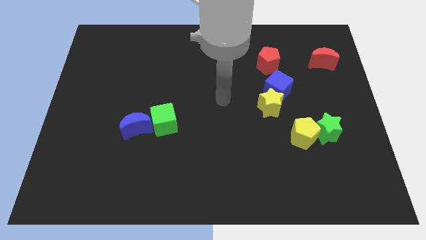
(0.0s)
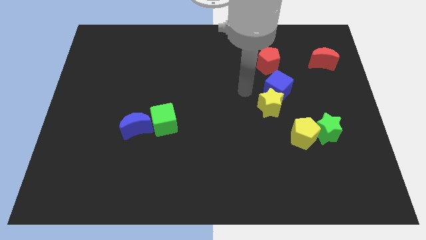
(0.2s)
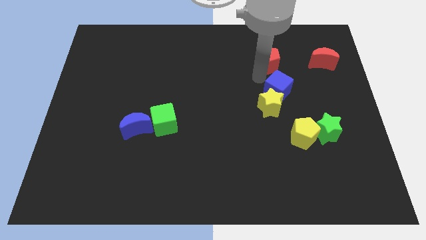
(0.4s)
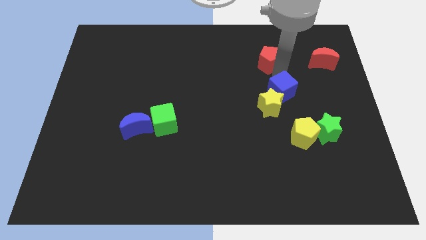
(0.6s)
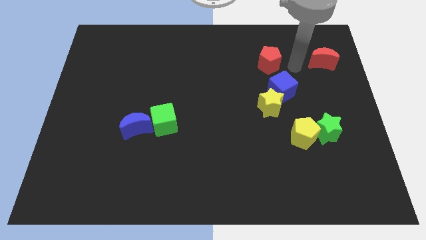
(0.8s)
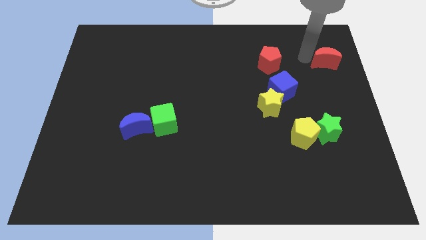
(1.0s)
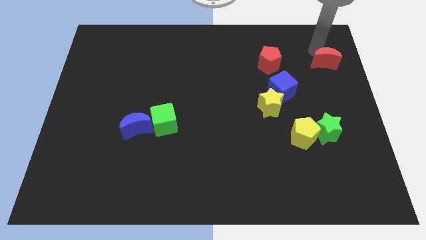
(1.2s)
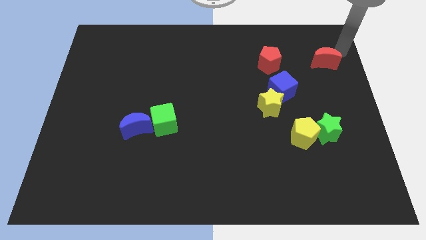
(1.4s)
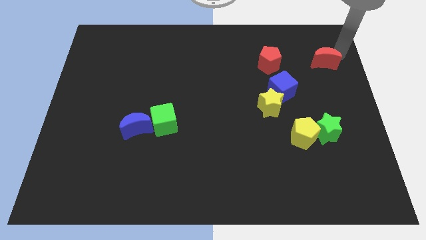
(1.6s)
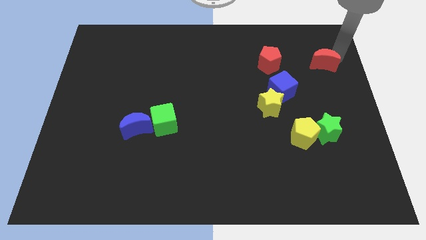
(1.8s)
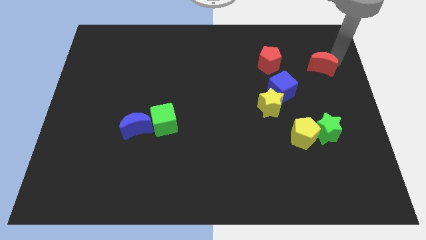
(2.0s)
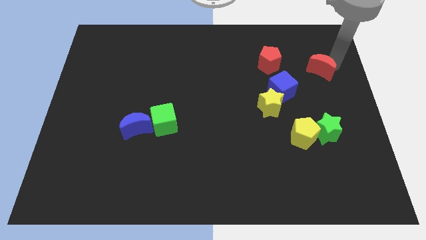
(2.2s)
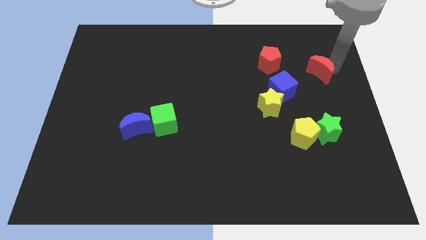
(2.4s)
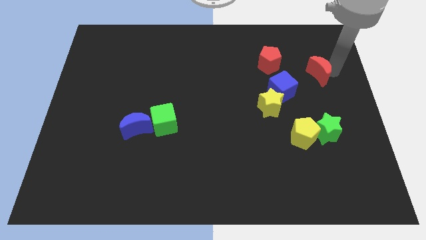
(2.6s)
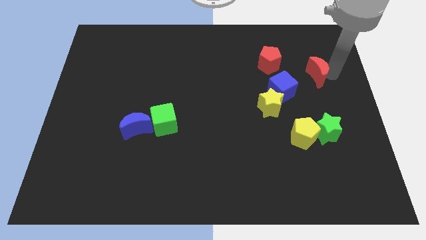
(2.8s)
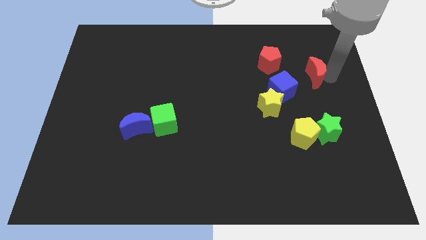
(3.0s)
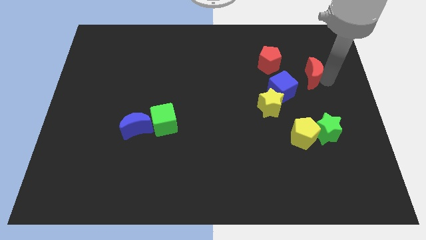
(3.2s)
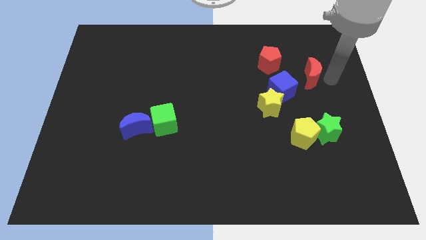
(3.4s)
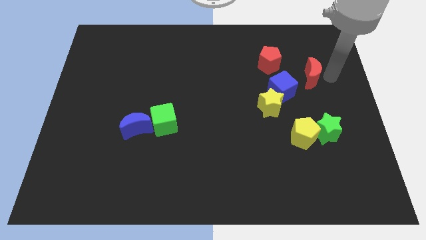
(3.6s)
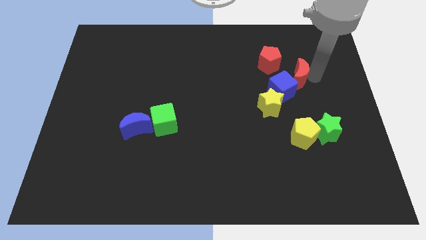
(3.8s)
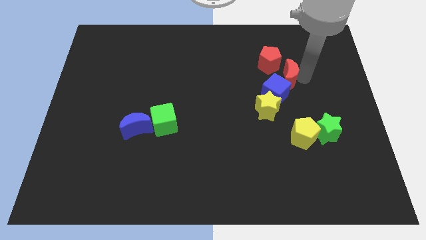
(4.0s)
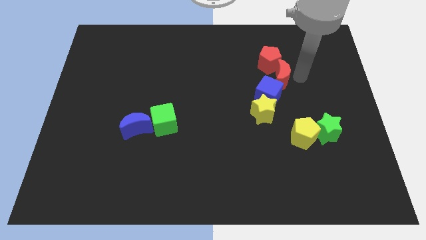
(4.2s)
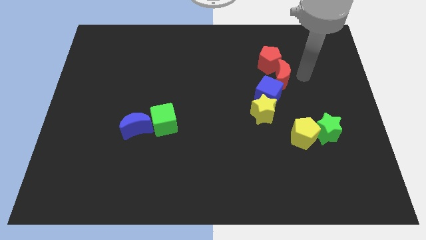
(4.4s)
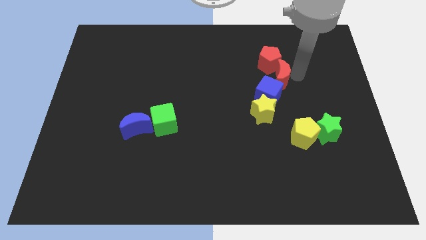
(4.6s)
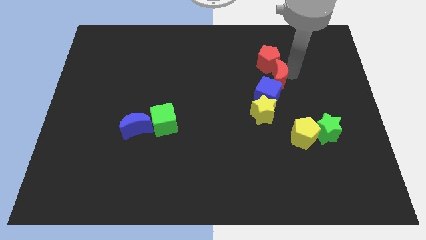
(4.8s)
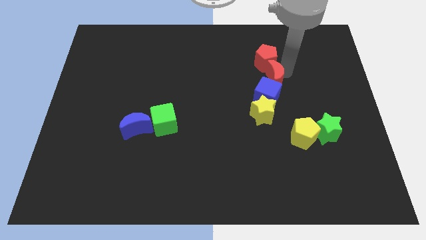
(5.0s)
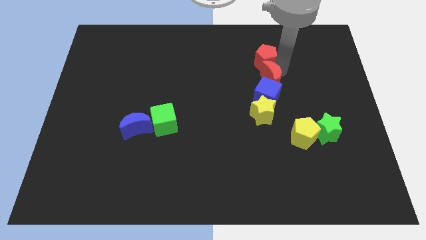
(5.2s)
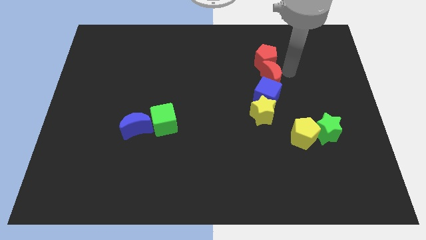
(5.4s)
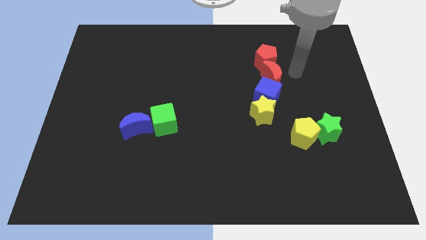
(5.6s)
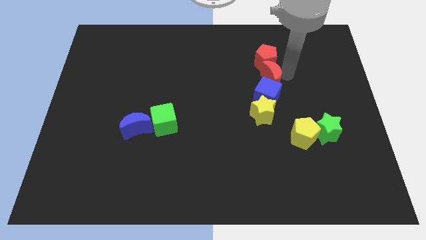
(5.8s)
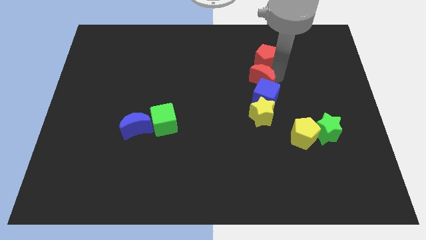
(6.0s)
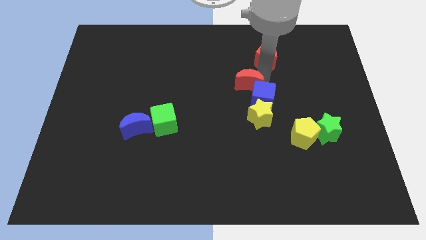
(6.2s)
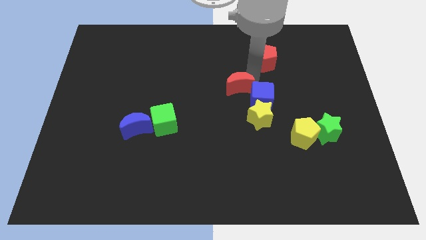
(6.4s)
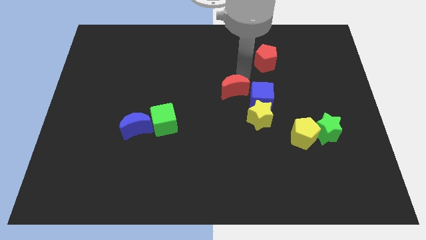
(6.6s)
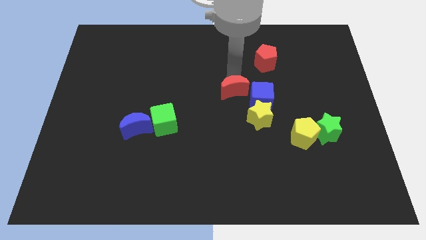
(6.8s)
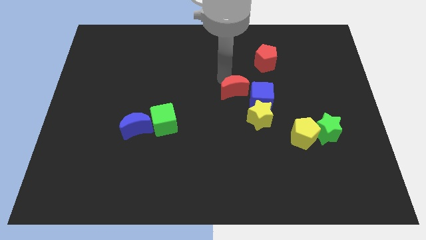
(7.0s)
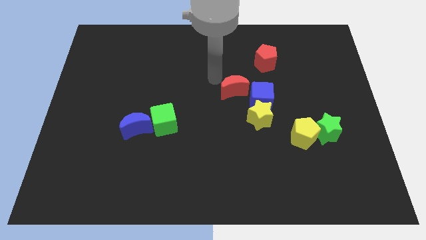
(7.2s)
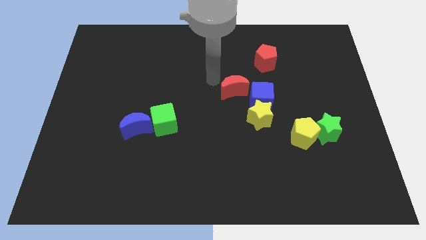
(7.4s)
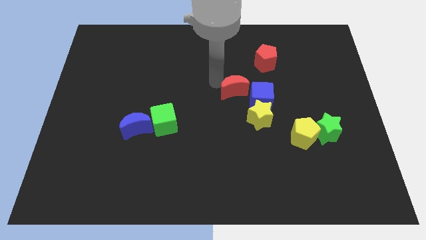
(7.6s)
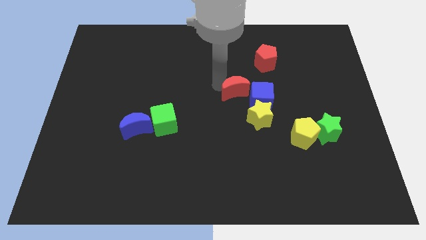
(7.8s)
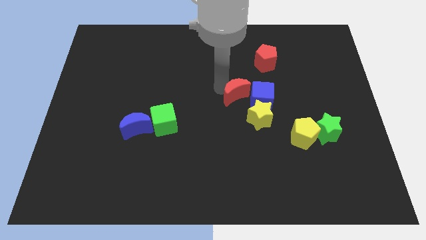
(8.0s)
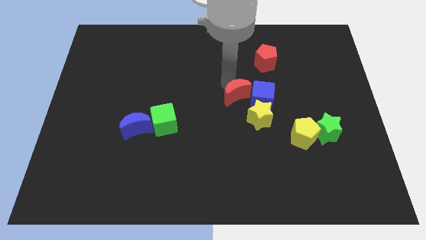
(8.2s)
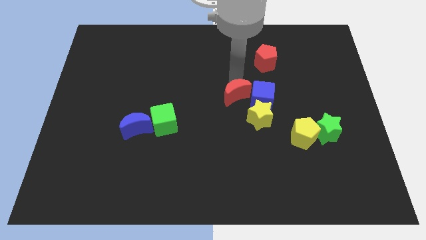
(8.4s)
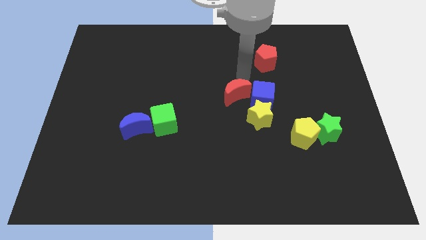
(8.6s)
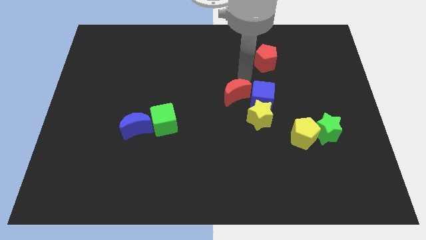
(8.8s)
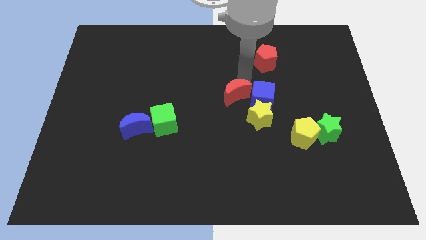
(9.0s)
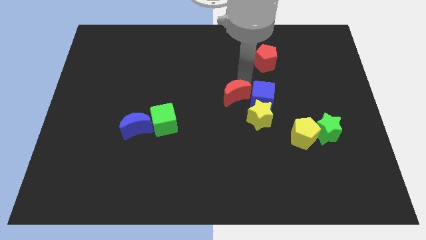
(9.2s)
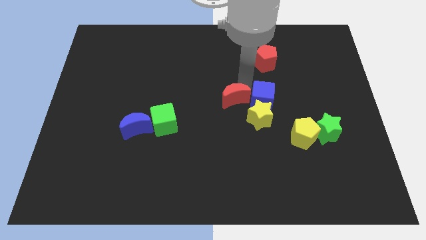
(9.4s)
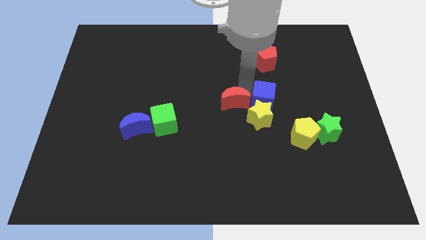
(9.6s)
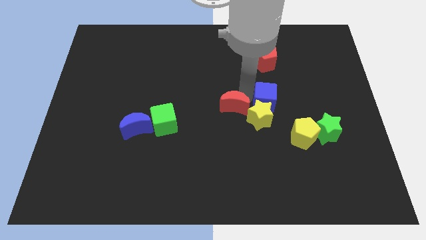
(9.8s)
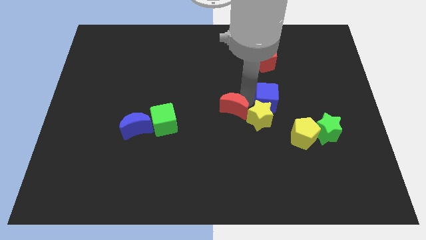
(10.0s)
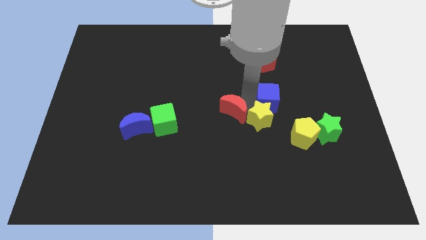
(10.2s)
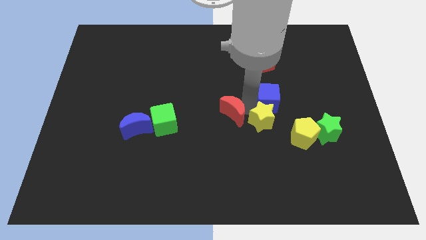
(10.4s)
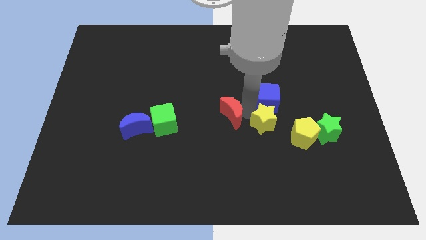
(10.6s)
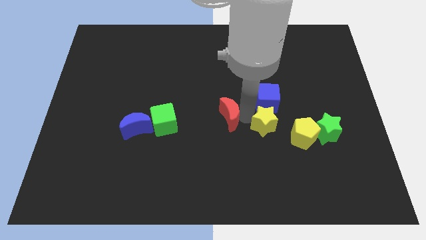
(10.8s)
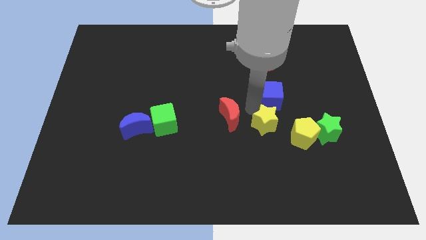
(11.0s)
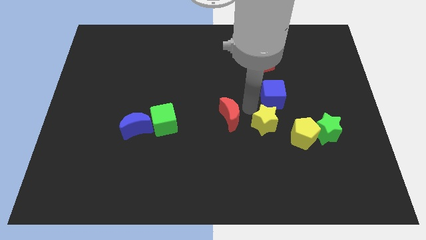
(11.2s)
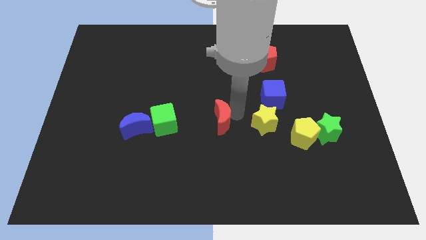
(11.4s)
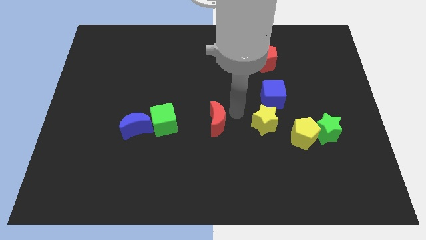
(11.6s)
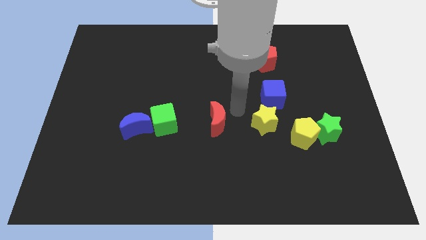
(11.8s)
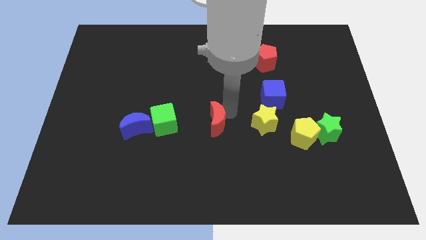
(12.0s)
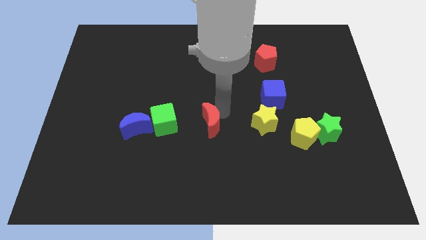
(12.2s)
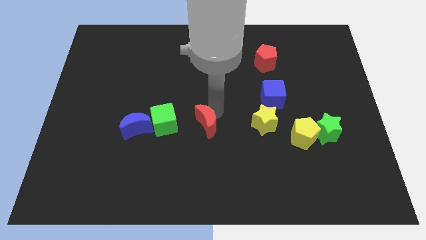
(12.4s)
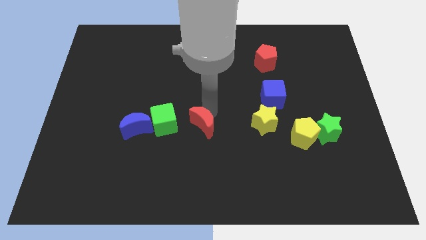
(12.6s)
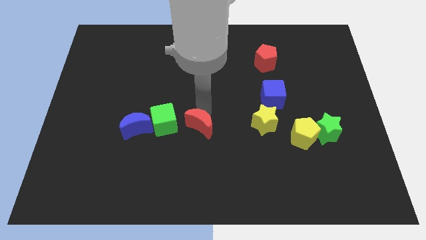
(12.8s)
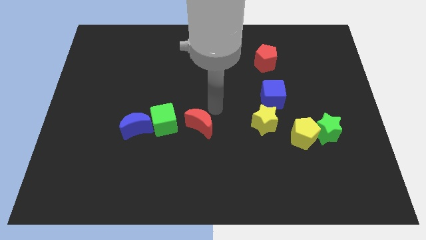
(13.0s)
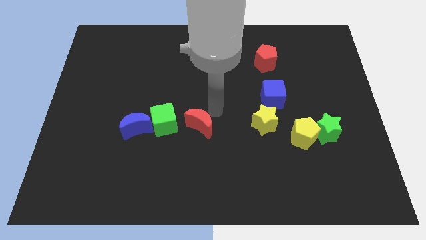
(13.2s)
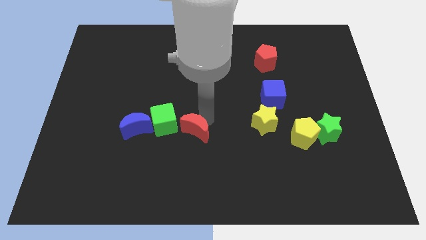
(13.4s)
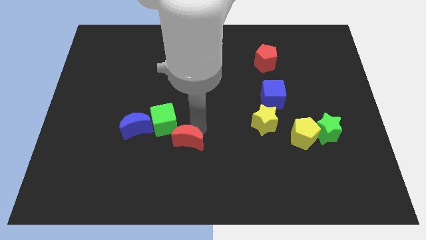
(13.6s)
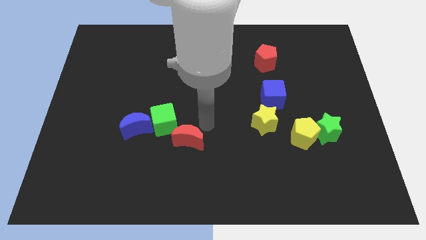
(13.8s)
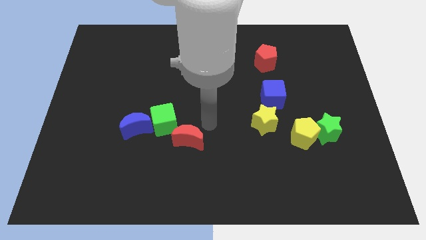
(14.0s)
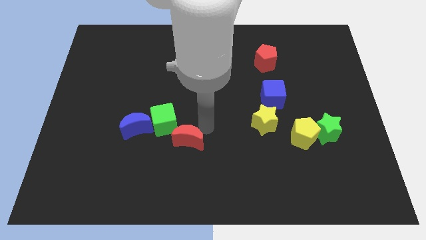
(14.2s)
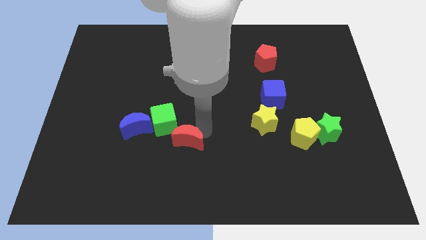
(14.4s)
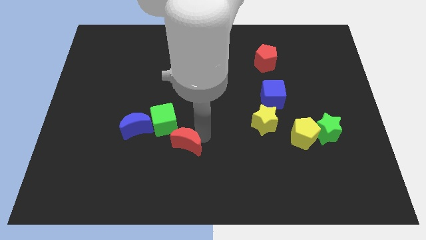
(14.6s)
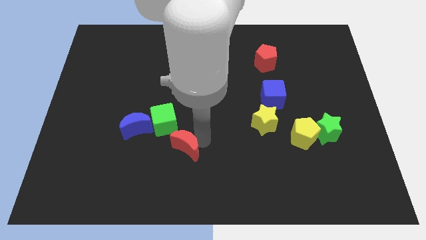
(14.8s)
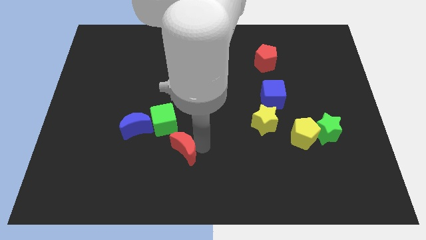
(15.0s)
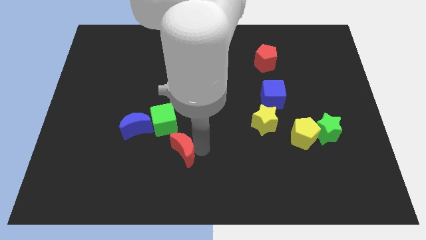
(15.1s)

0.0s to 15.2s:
move the red moon to the bottom side of the green cube
